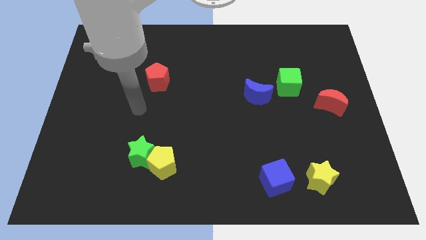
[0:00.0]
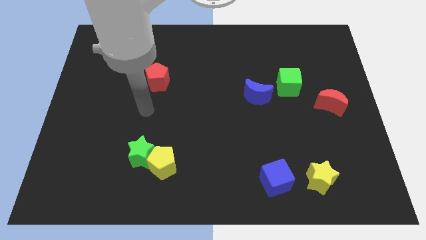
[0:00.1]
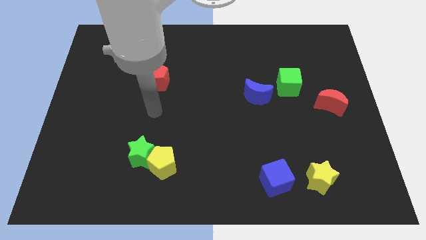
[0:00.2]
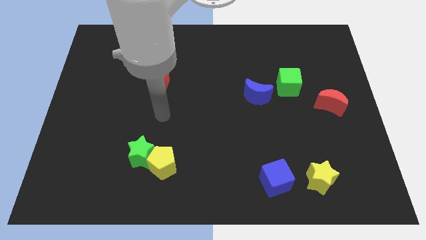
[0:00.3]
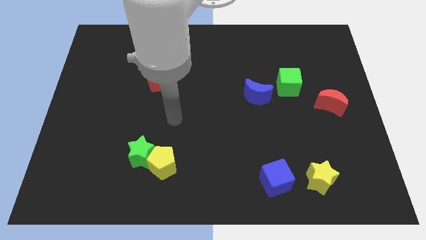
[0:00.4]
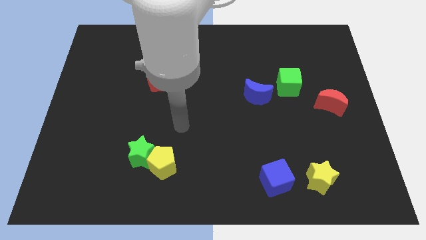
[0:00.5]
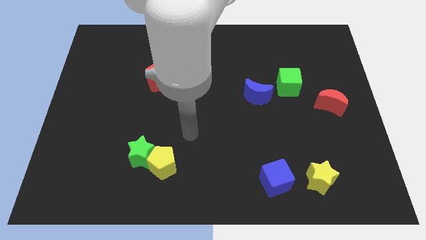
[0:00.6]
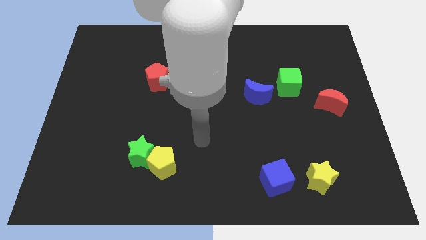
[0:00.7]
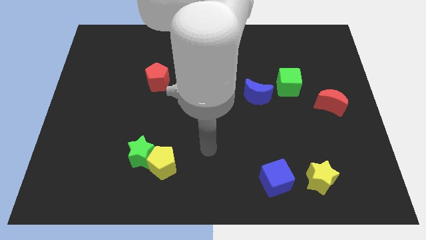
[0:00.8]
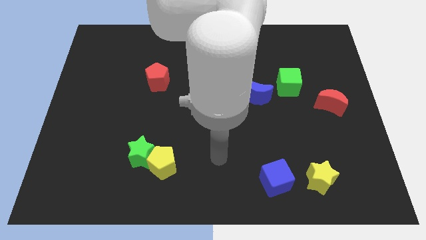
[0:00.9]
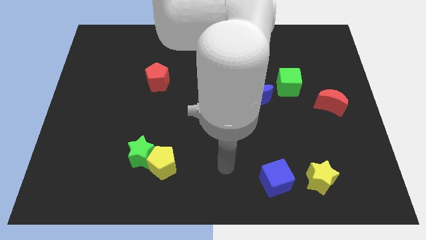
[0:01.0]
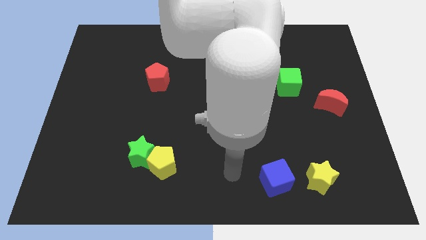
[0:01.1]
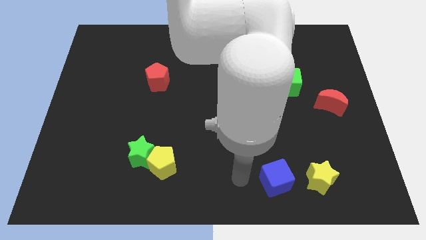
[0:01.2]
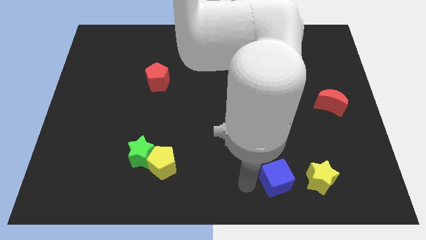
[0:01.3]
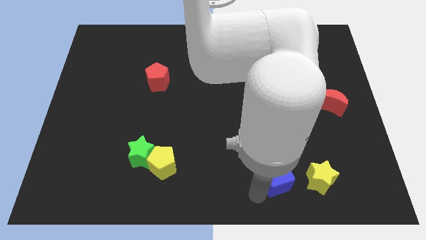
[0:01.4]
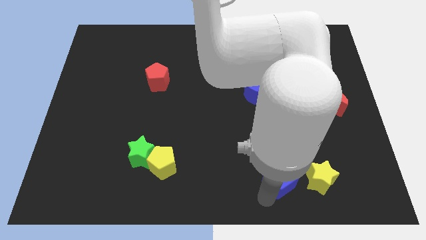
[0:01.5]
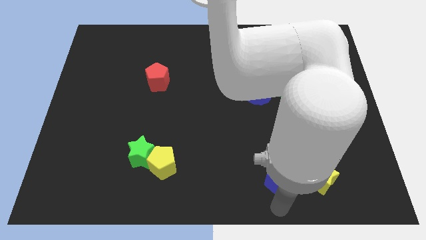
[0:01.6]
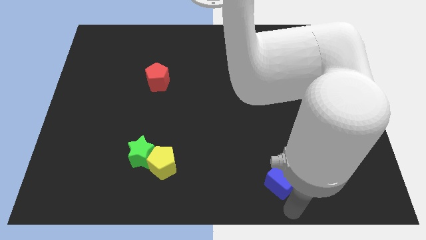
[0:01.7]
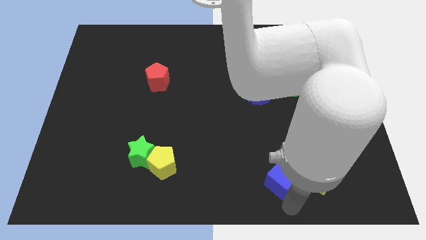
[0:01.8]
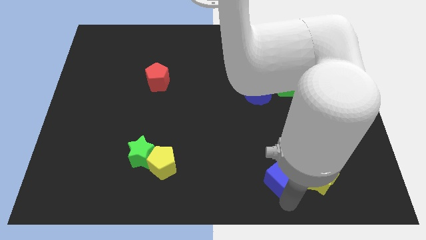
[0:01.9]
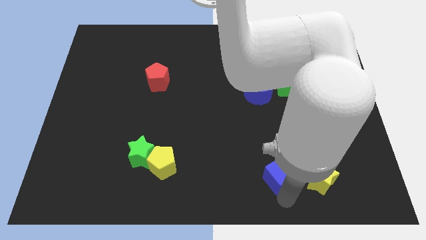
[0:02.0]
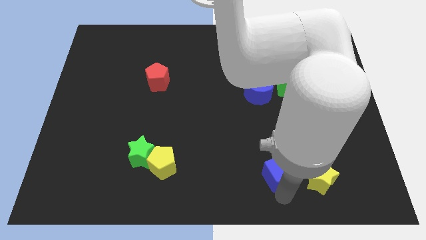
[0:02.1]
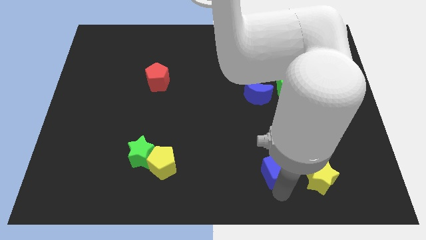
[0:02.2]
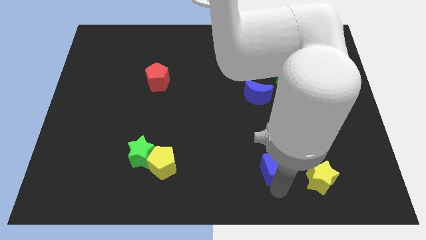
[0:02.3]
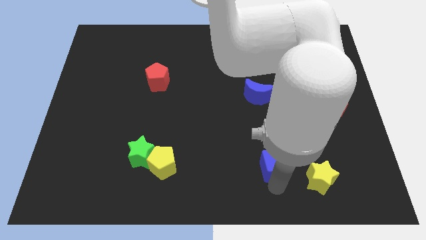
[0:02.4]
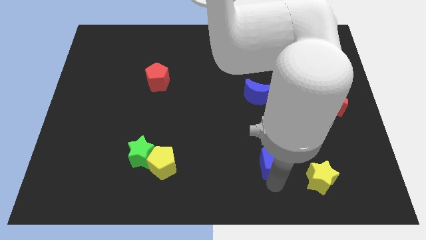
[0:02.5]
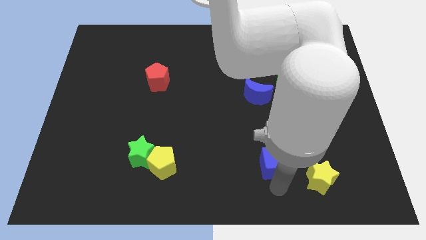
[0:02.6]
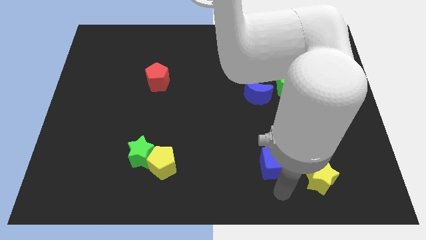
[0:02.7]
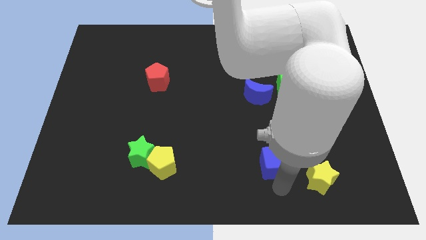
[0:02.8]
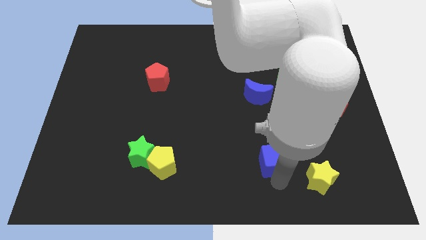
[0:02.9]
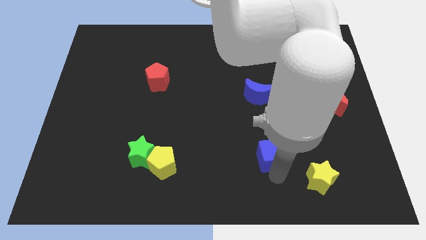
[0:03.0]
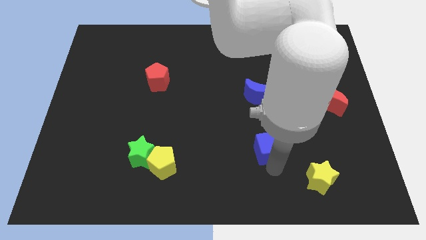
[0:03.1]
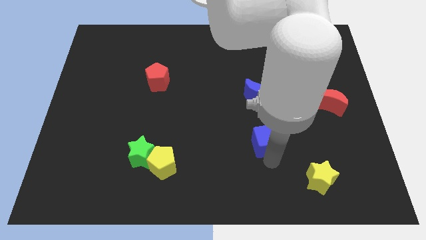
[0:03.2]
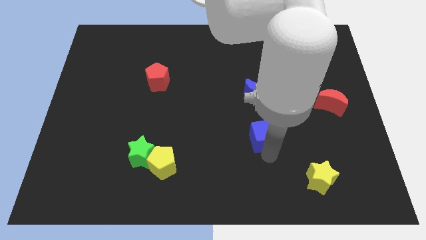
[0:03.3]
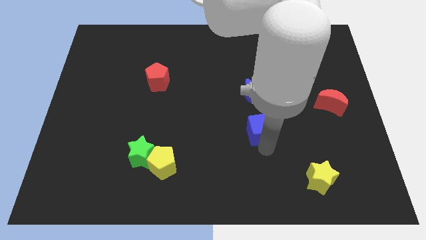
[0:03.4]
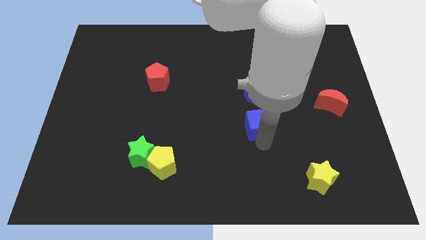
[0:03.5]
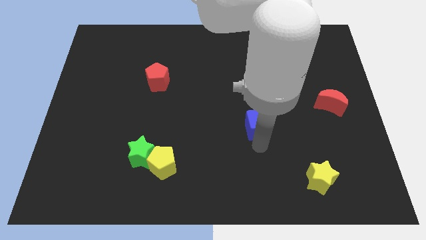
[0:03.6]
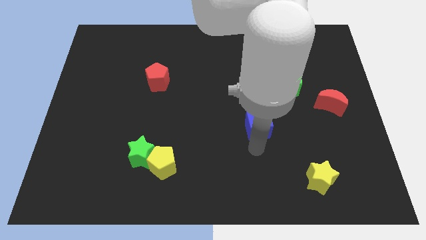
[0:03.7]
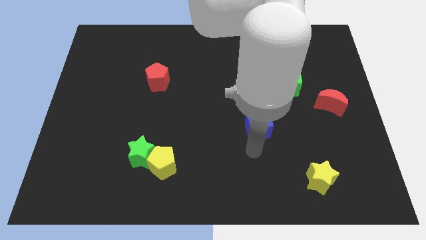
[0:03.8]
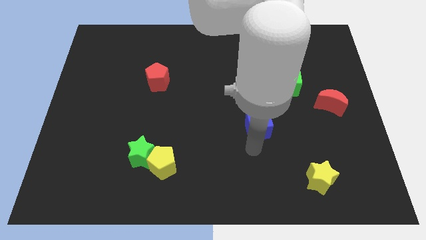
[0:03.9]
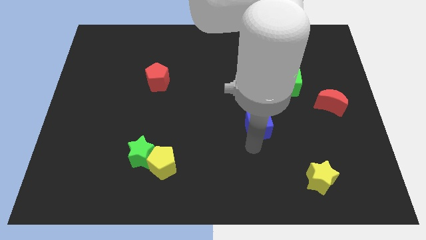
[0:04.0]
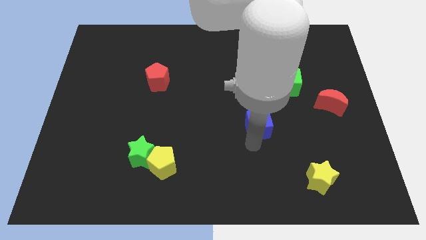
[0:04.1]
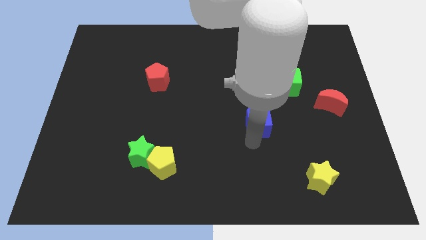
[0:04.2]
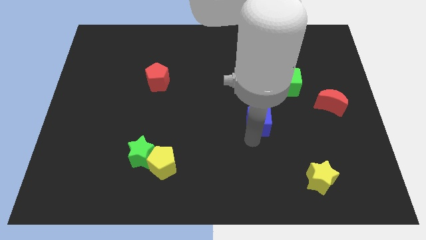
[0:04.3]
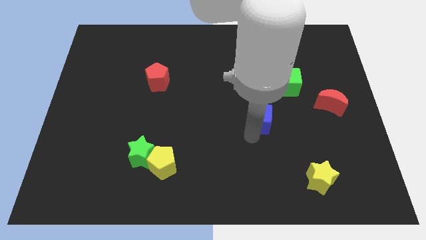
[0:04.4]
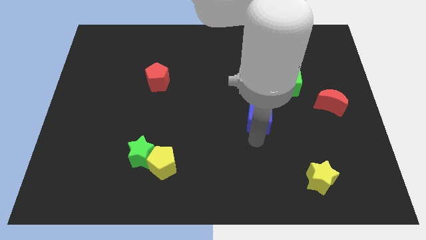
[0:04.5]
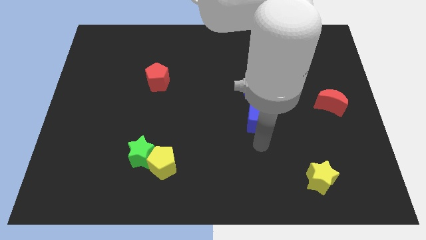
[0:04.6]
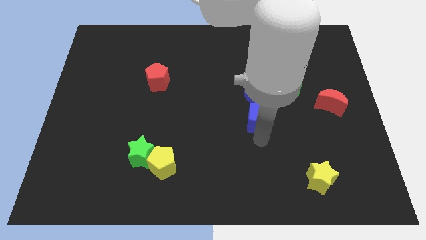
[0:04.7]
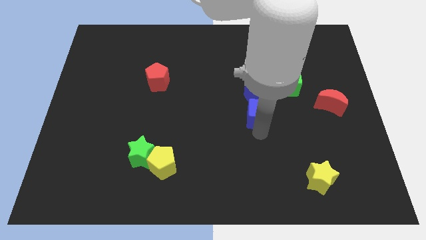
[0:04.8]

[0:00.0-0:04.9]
move the blue cube close to the blue moon

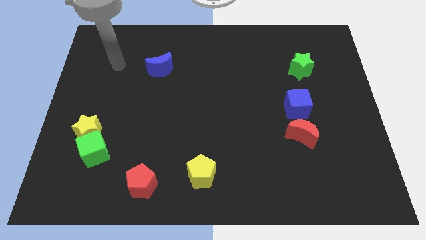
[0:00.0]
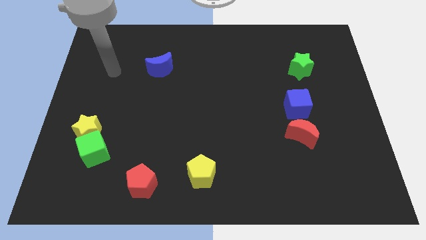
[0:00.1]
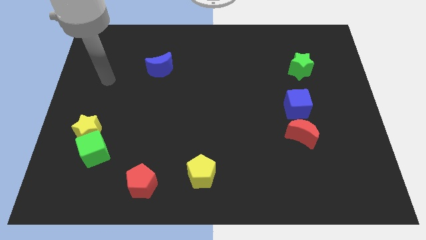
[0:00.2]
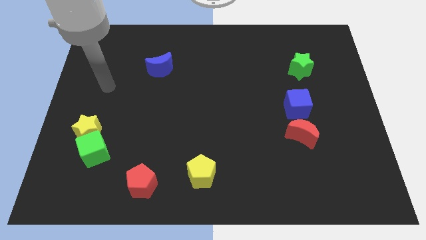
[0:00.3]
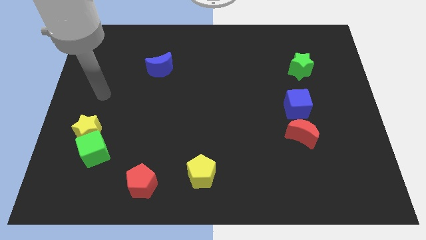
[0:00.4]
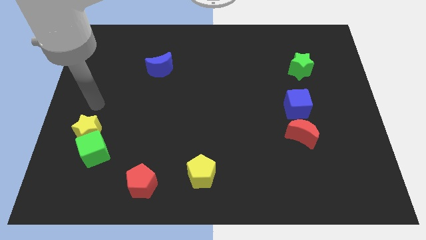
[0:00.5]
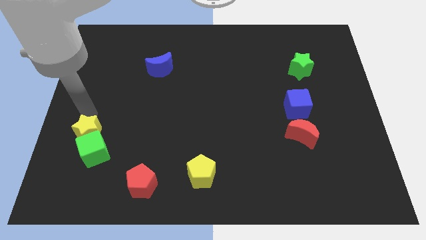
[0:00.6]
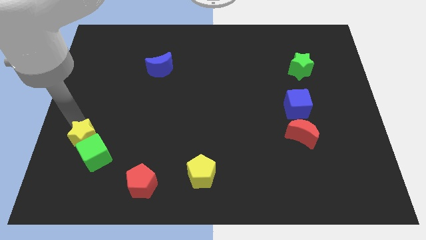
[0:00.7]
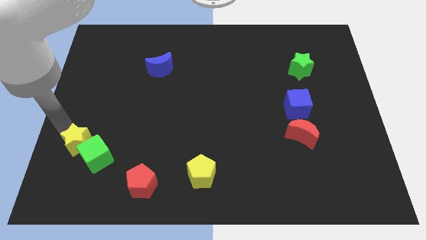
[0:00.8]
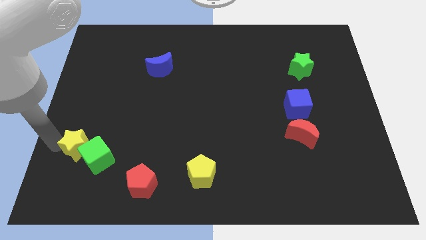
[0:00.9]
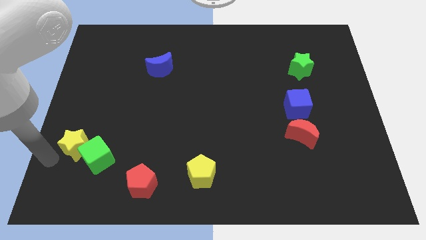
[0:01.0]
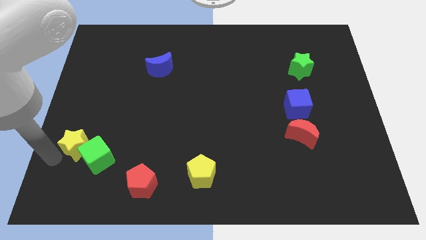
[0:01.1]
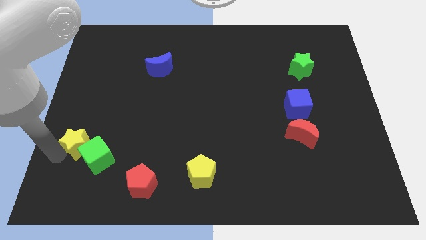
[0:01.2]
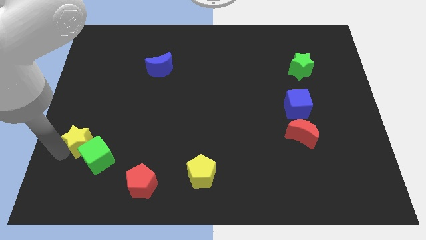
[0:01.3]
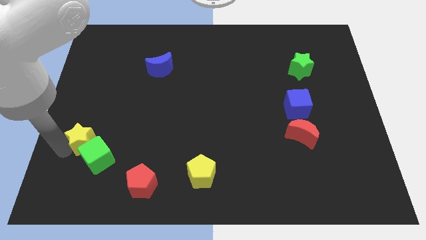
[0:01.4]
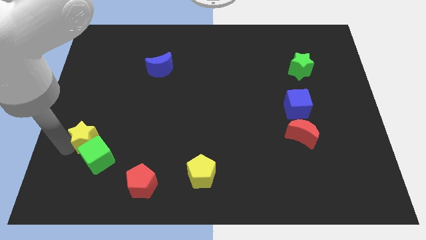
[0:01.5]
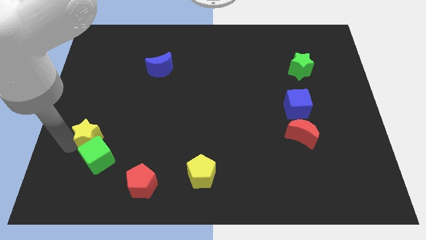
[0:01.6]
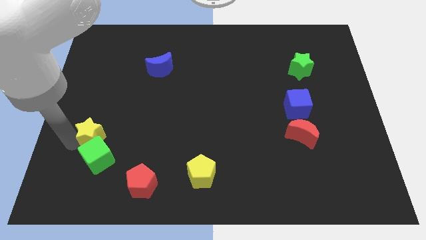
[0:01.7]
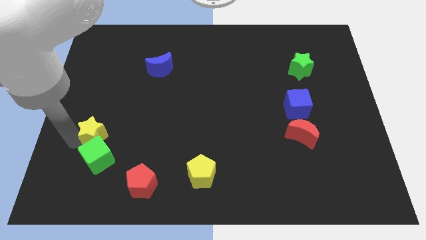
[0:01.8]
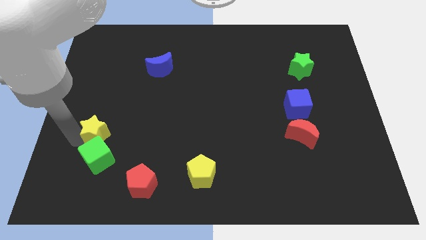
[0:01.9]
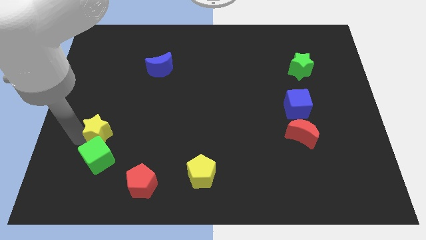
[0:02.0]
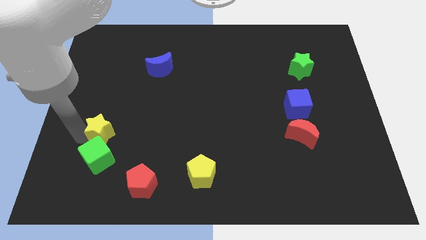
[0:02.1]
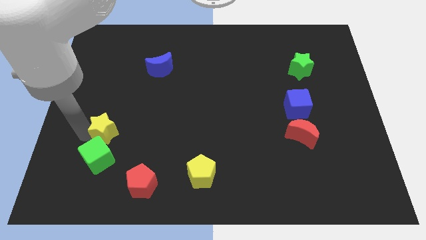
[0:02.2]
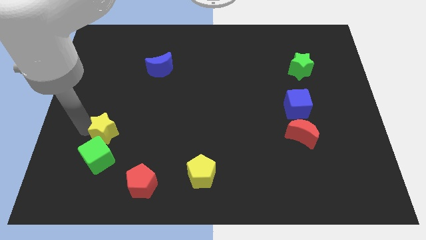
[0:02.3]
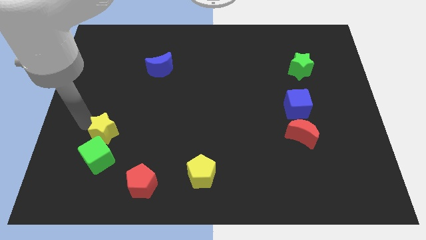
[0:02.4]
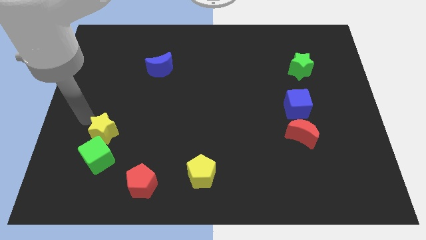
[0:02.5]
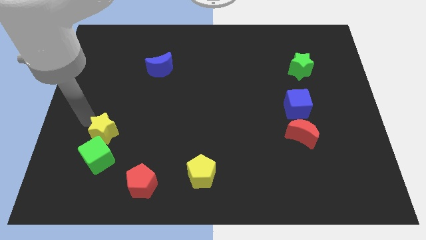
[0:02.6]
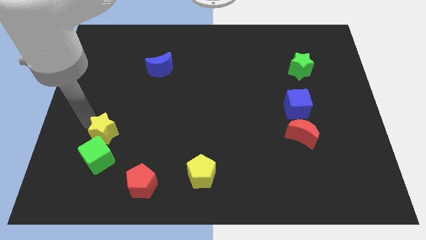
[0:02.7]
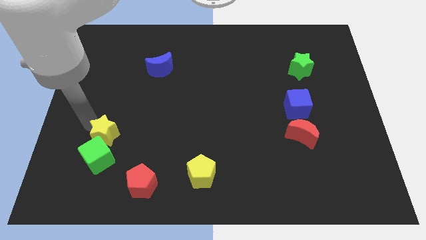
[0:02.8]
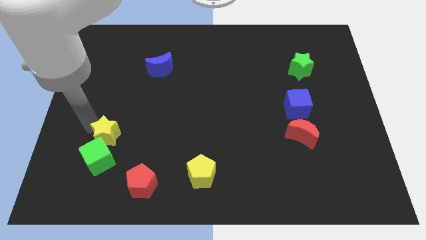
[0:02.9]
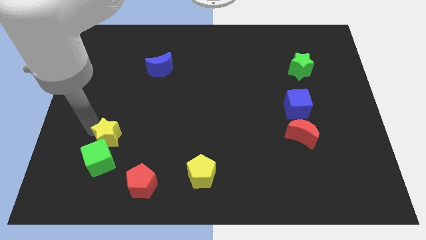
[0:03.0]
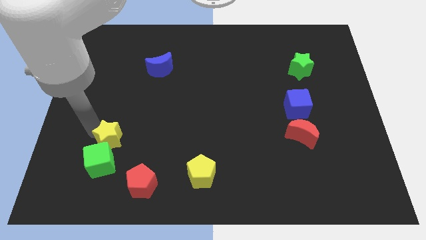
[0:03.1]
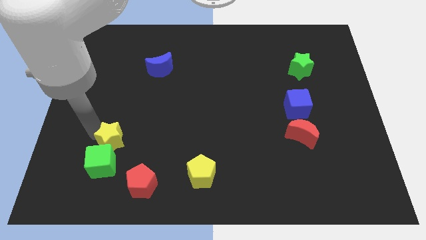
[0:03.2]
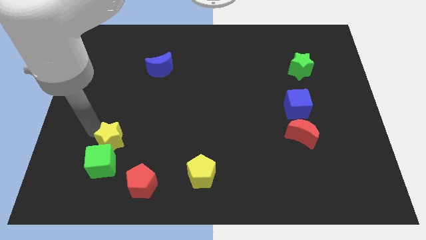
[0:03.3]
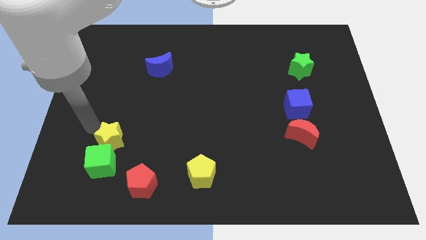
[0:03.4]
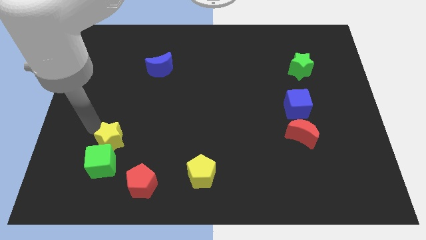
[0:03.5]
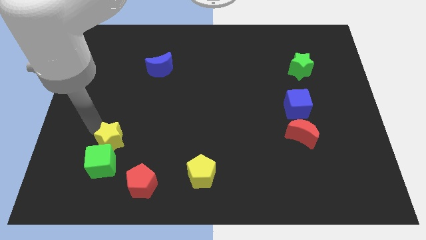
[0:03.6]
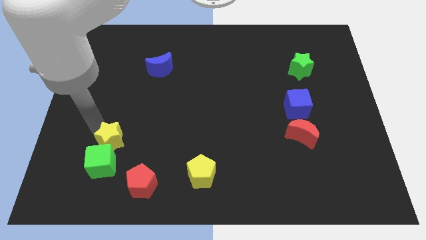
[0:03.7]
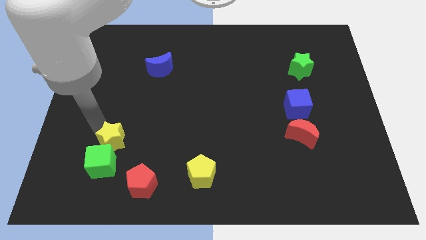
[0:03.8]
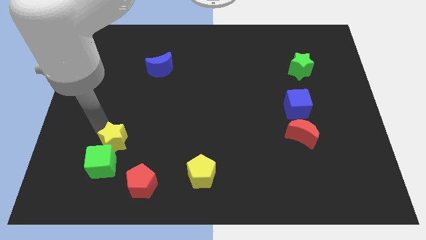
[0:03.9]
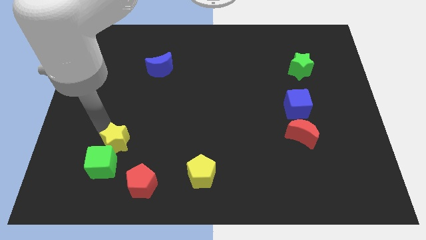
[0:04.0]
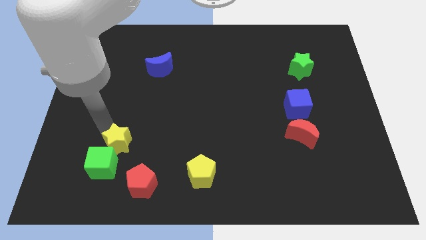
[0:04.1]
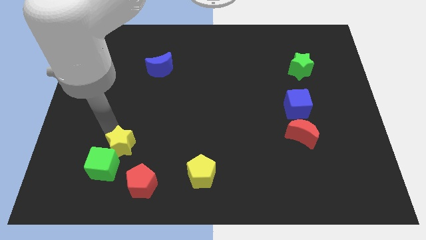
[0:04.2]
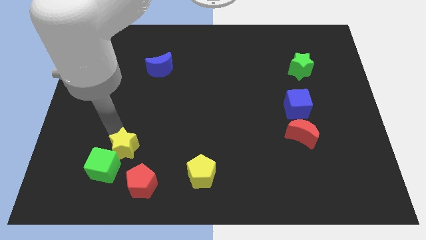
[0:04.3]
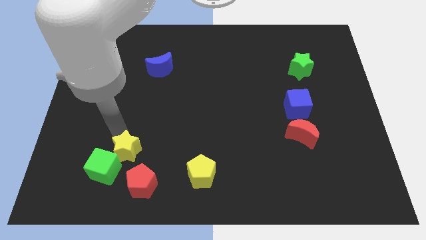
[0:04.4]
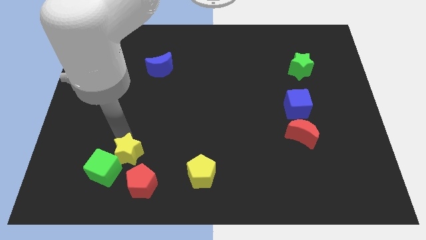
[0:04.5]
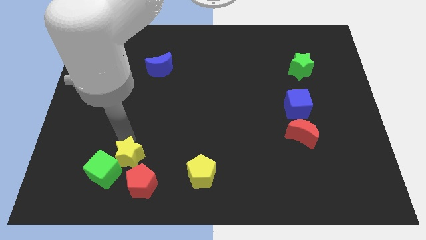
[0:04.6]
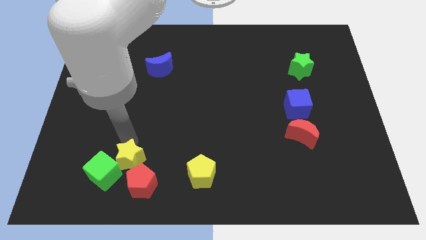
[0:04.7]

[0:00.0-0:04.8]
move the yellow star towards the red pentagon
